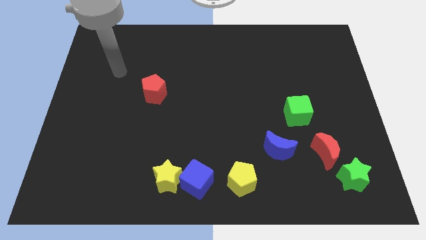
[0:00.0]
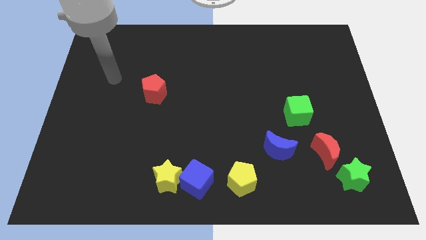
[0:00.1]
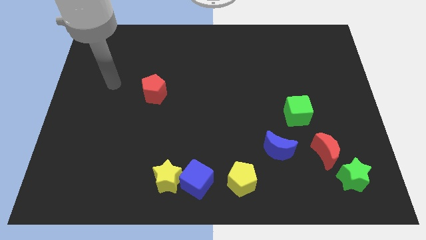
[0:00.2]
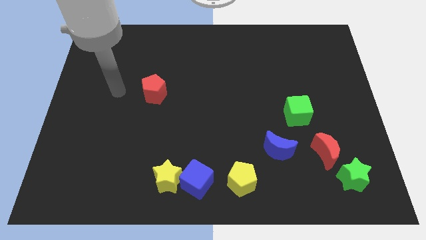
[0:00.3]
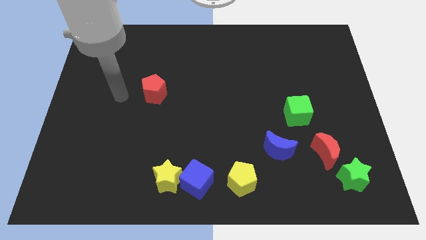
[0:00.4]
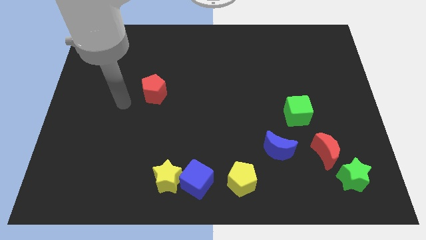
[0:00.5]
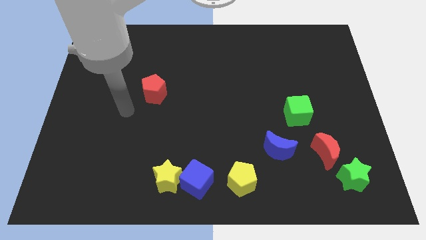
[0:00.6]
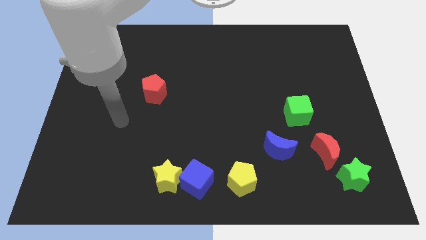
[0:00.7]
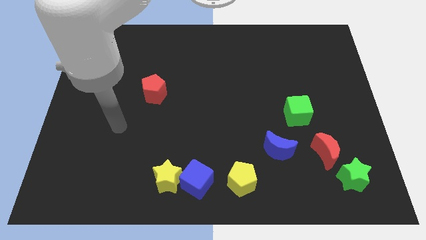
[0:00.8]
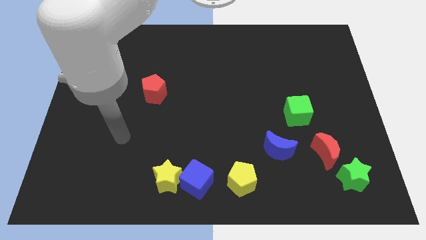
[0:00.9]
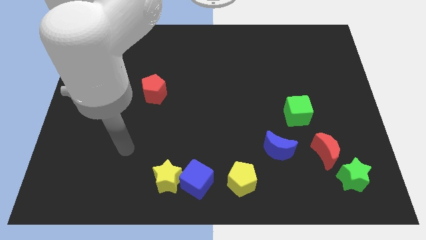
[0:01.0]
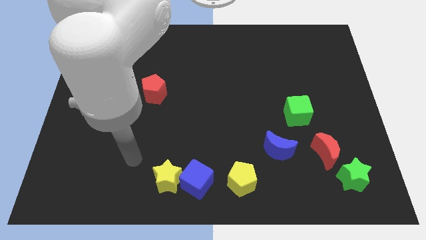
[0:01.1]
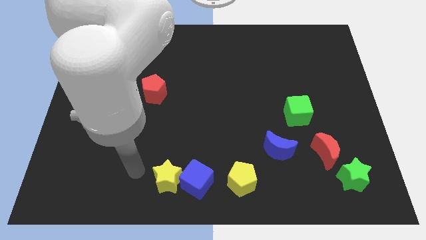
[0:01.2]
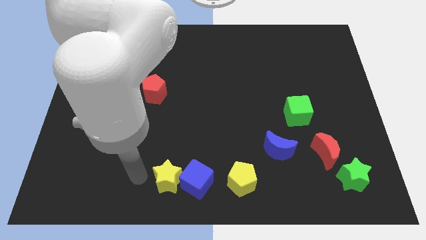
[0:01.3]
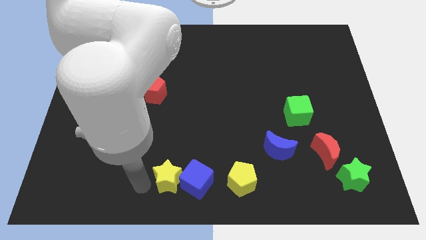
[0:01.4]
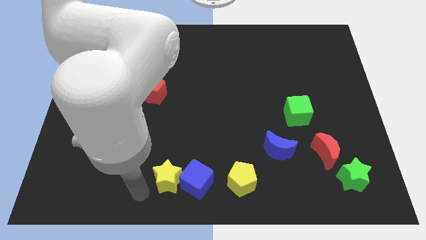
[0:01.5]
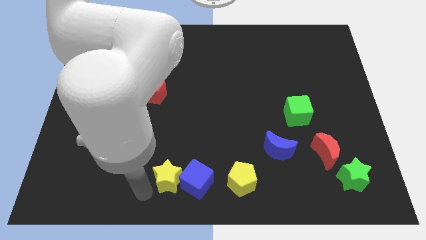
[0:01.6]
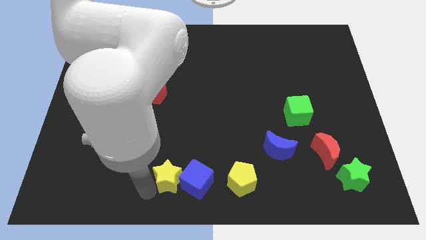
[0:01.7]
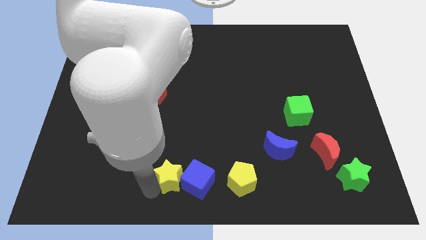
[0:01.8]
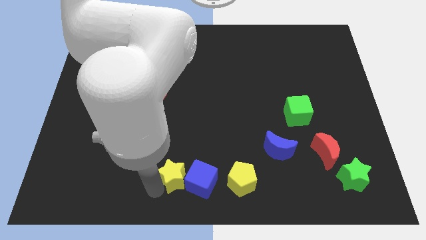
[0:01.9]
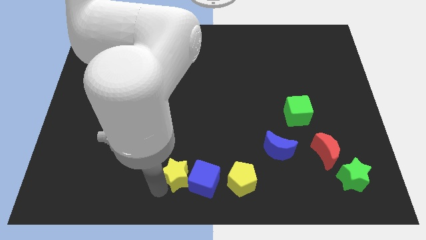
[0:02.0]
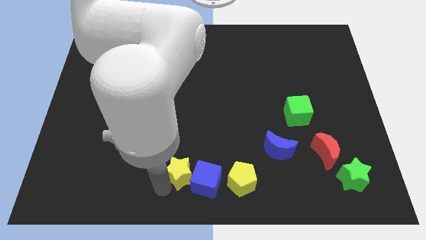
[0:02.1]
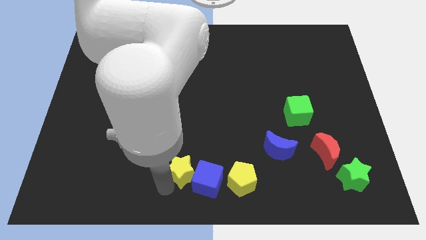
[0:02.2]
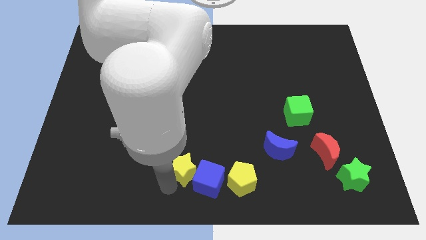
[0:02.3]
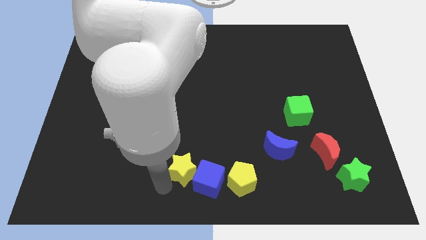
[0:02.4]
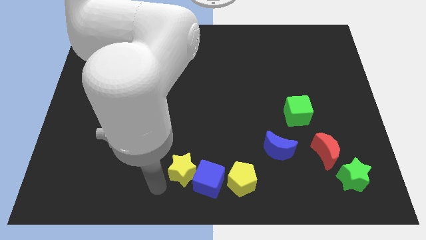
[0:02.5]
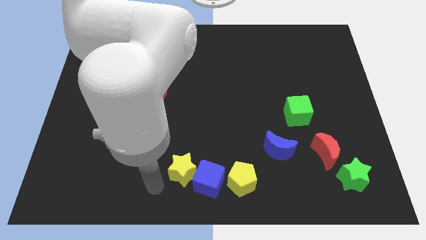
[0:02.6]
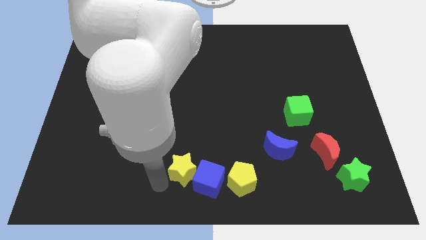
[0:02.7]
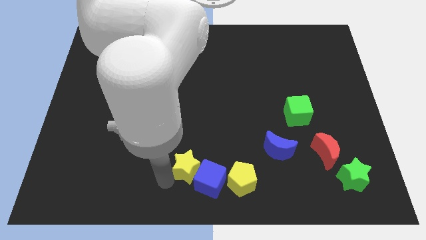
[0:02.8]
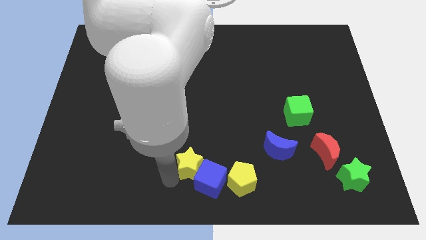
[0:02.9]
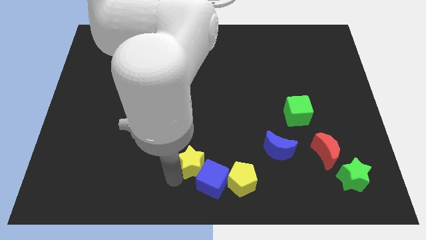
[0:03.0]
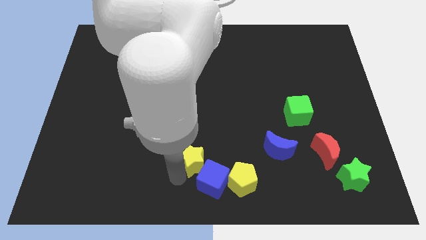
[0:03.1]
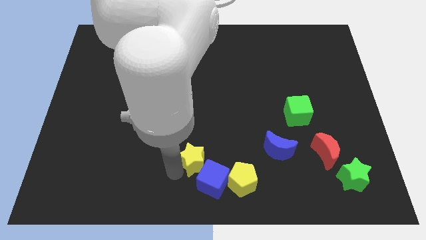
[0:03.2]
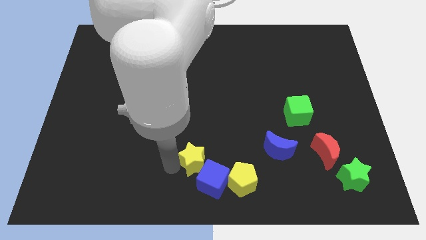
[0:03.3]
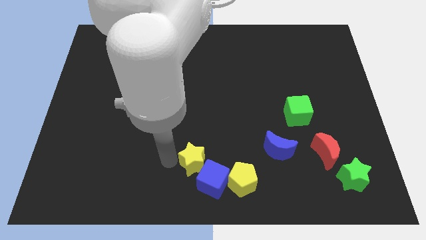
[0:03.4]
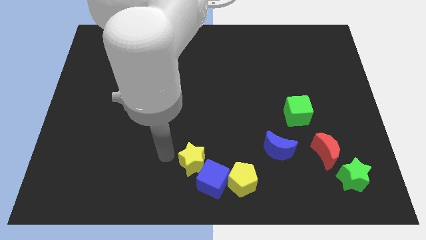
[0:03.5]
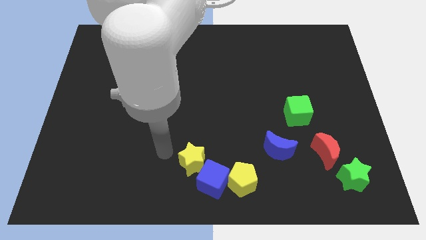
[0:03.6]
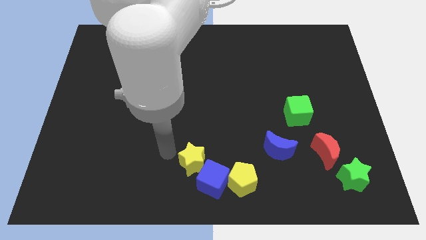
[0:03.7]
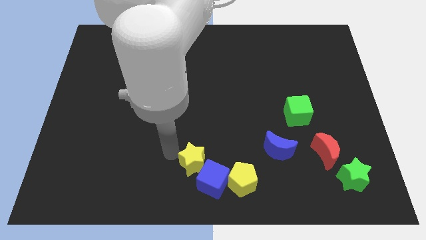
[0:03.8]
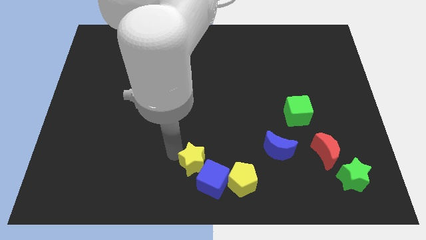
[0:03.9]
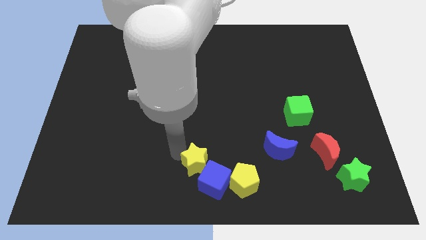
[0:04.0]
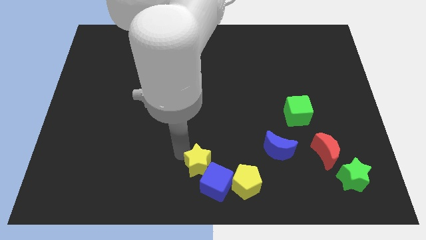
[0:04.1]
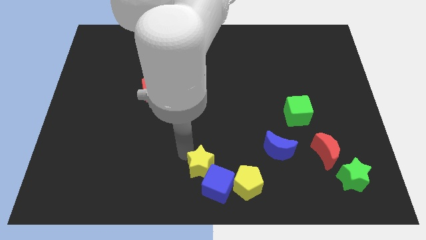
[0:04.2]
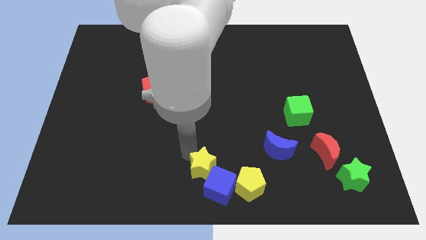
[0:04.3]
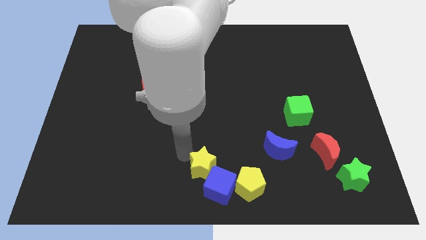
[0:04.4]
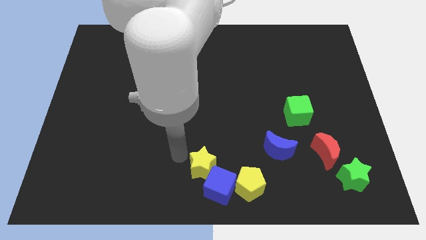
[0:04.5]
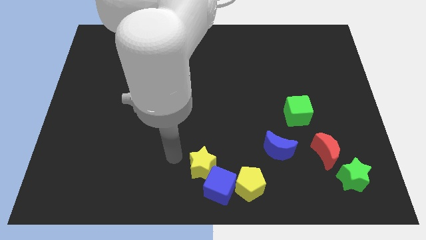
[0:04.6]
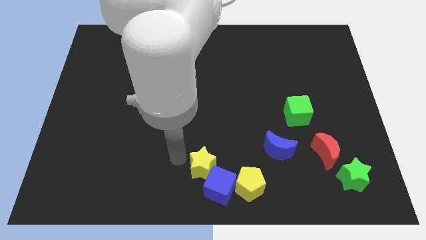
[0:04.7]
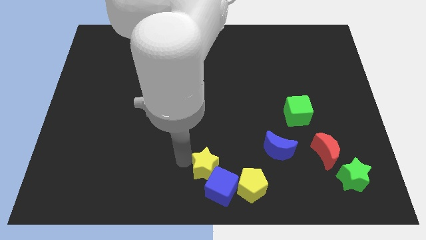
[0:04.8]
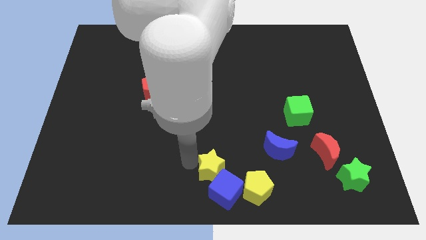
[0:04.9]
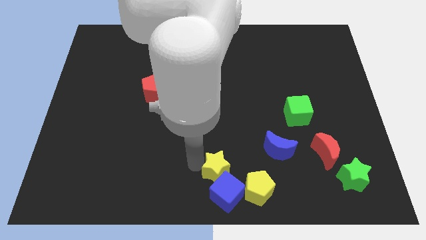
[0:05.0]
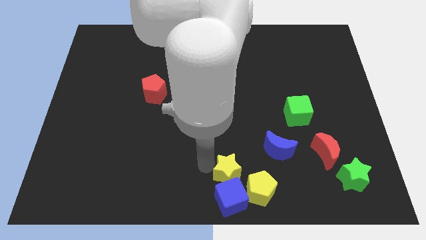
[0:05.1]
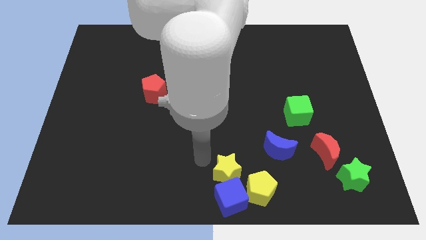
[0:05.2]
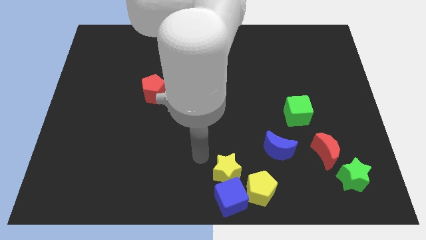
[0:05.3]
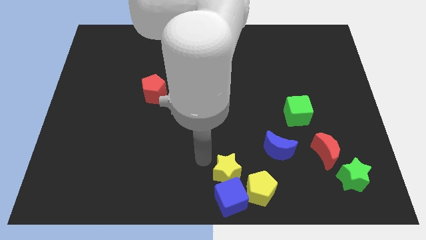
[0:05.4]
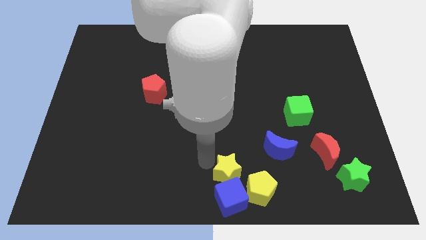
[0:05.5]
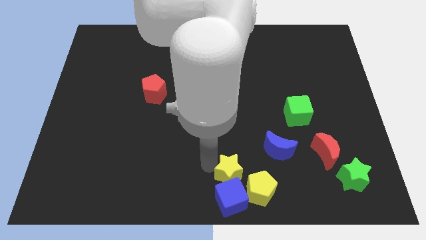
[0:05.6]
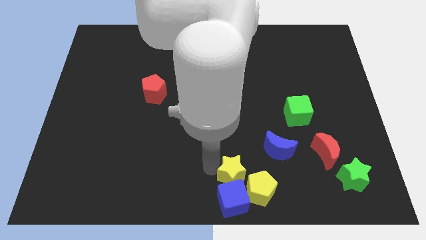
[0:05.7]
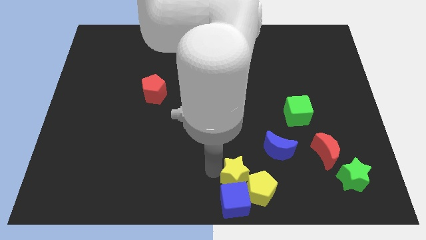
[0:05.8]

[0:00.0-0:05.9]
push the yellow star next to the yellow pentagon

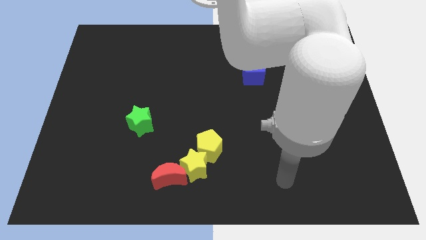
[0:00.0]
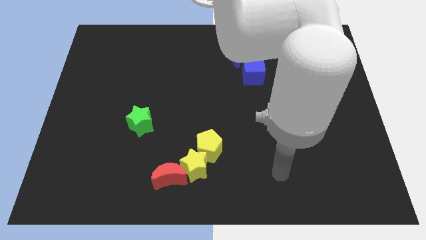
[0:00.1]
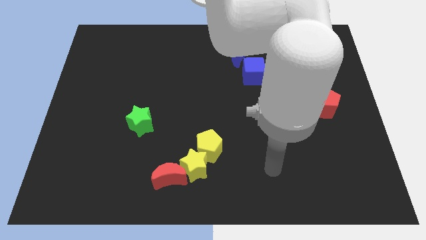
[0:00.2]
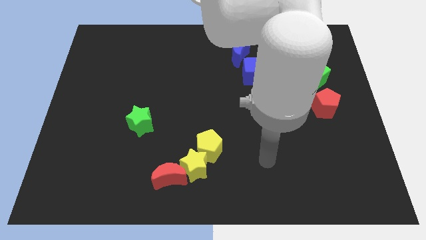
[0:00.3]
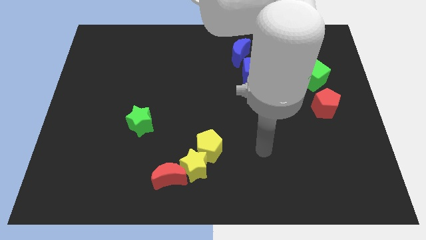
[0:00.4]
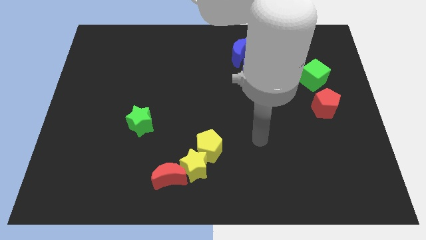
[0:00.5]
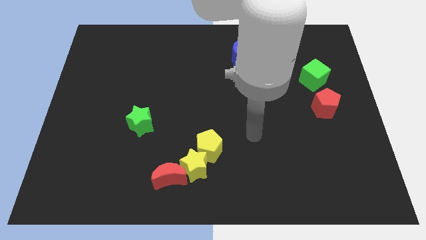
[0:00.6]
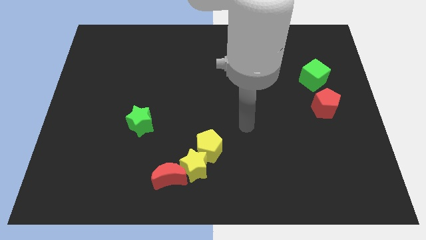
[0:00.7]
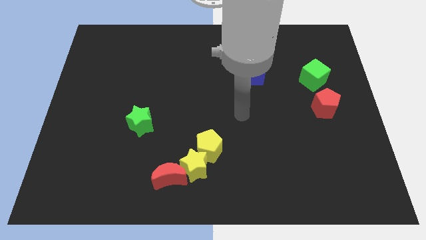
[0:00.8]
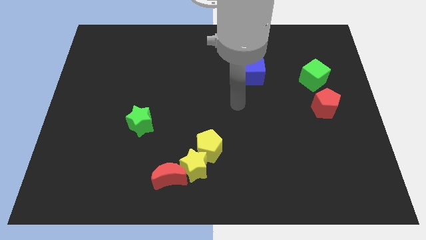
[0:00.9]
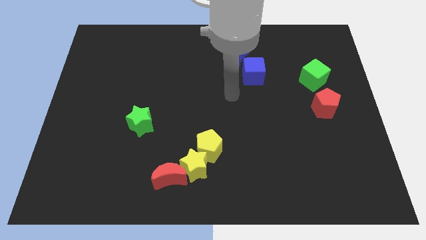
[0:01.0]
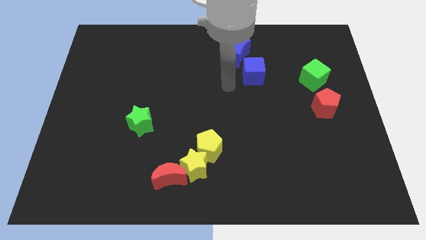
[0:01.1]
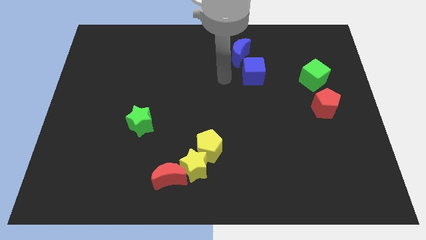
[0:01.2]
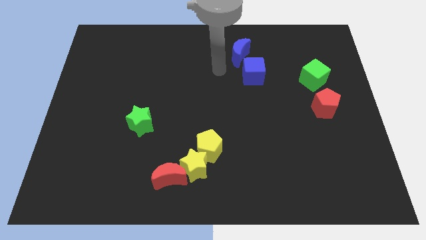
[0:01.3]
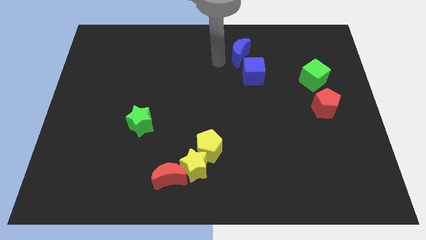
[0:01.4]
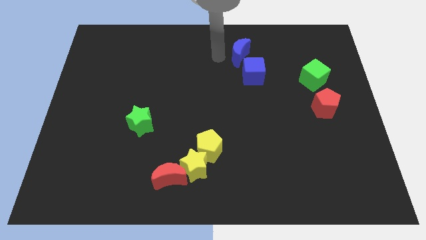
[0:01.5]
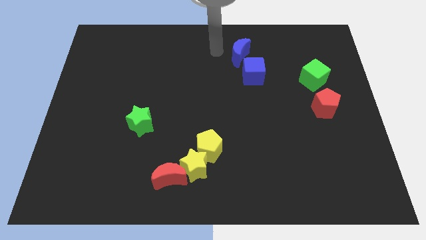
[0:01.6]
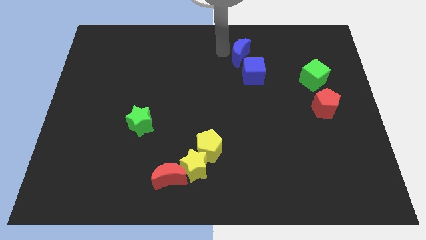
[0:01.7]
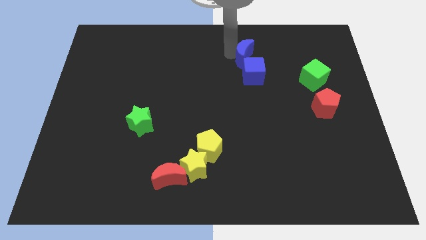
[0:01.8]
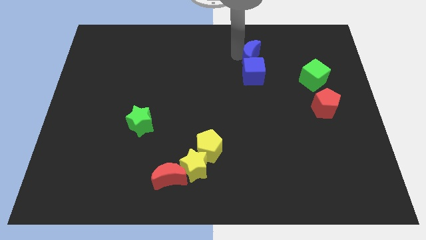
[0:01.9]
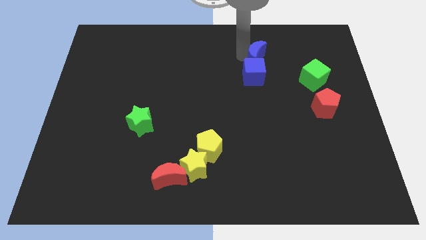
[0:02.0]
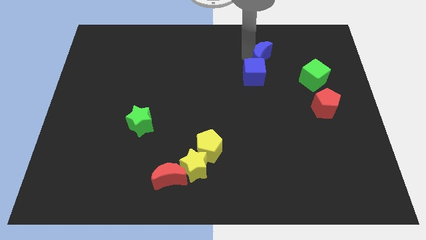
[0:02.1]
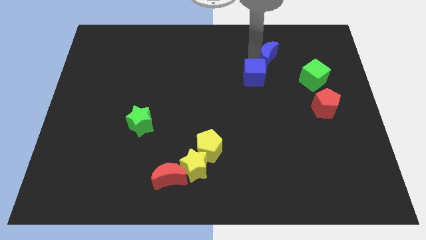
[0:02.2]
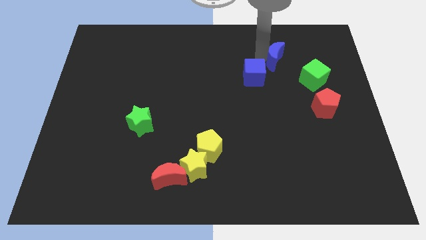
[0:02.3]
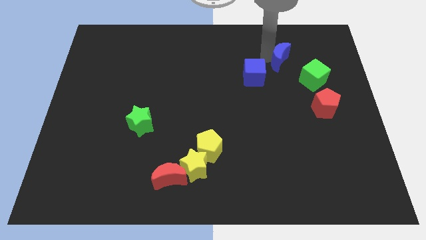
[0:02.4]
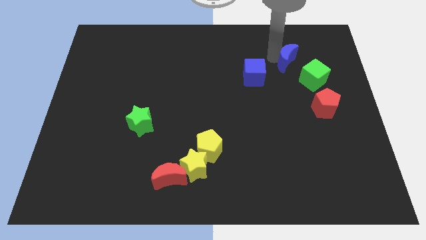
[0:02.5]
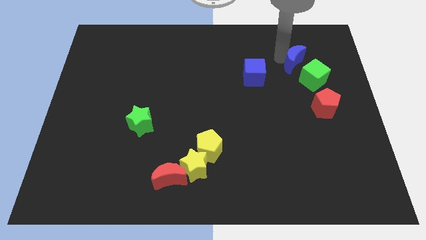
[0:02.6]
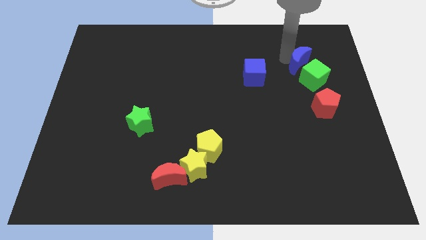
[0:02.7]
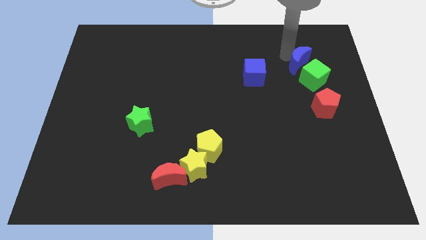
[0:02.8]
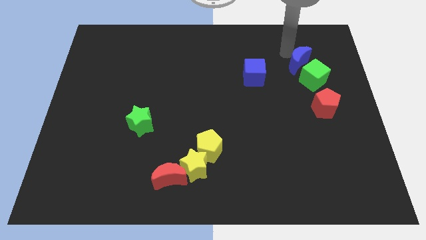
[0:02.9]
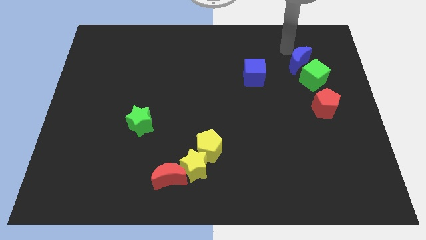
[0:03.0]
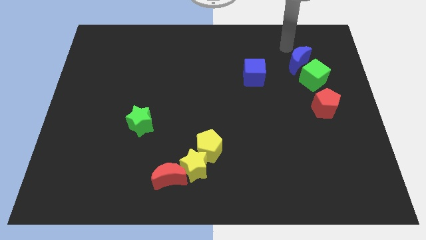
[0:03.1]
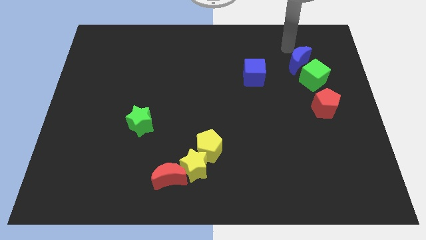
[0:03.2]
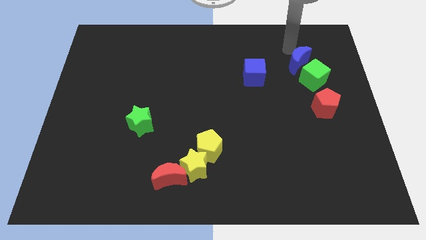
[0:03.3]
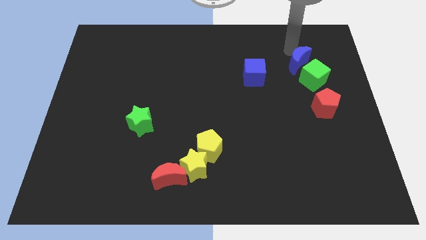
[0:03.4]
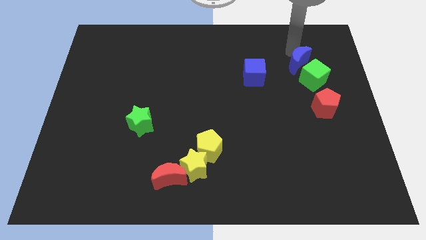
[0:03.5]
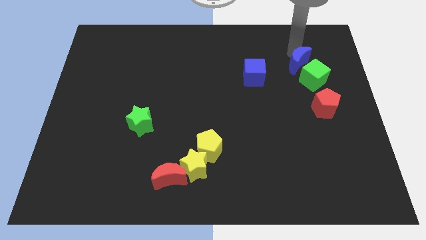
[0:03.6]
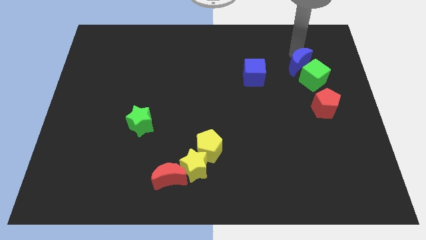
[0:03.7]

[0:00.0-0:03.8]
move the blue moon next to the green cube
